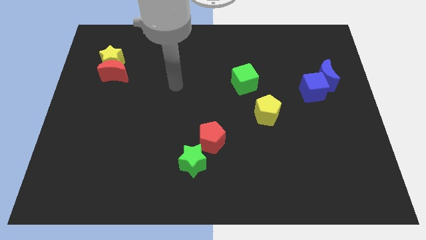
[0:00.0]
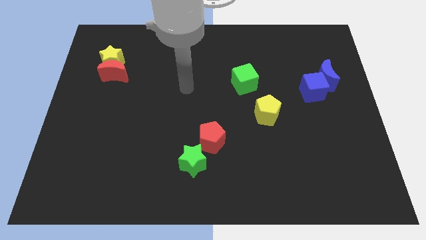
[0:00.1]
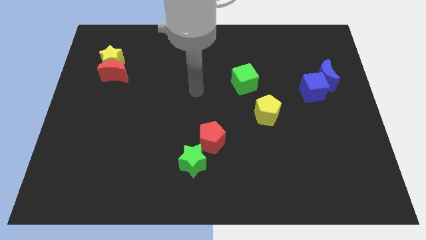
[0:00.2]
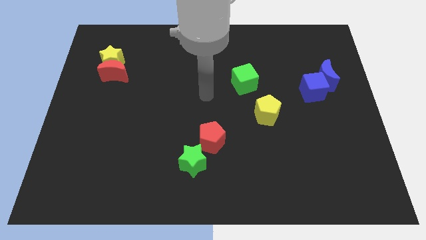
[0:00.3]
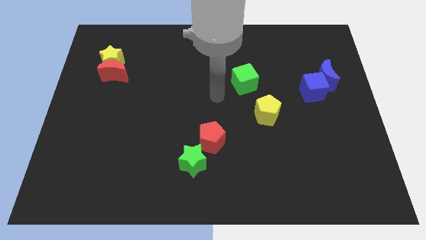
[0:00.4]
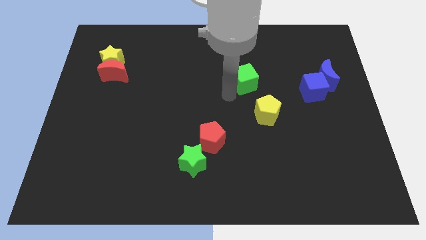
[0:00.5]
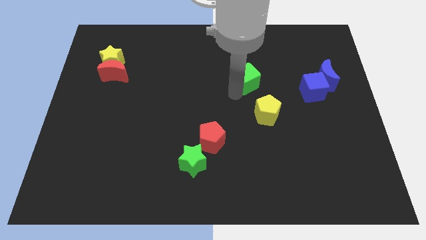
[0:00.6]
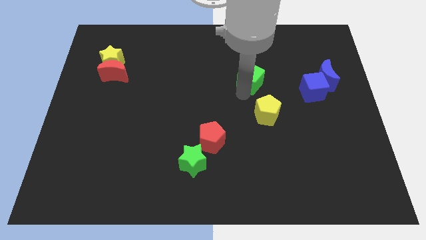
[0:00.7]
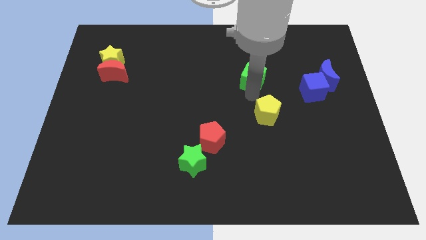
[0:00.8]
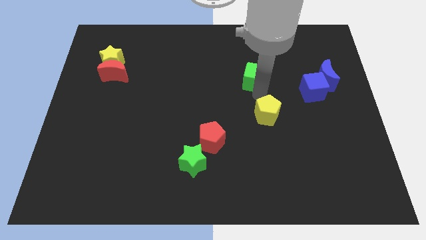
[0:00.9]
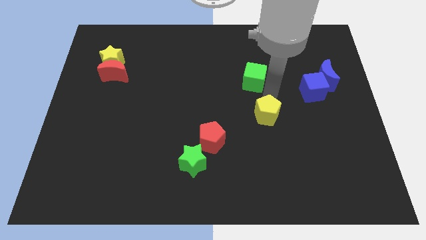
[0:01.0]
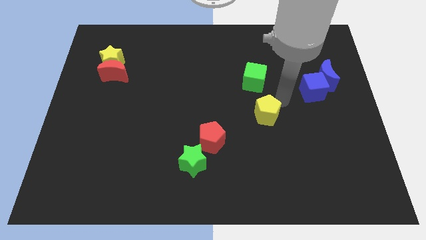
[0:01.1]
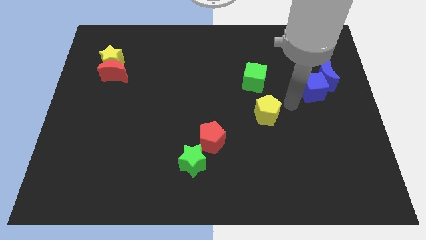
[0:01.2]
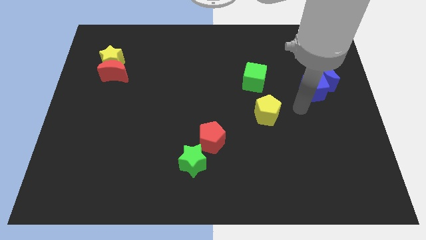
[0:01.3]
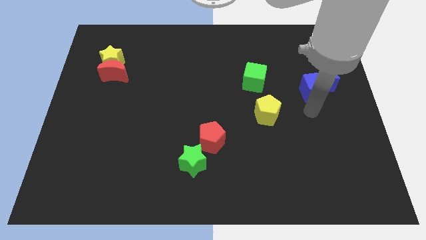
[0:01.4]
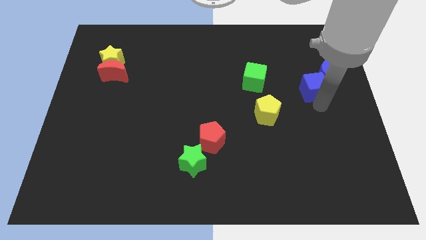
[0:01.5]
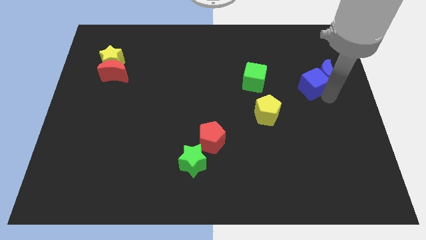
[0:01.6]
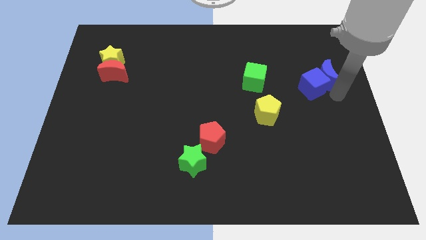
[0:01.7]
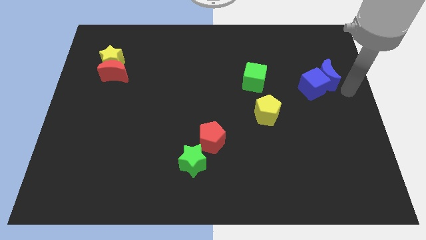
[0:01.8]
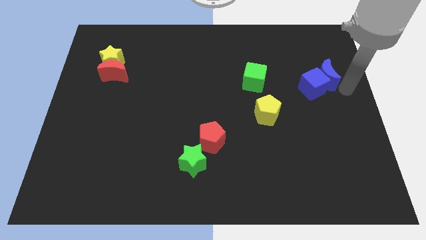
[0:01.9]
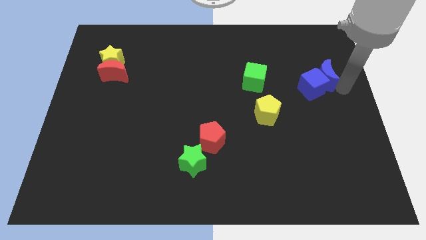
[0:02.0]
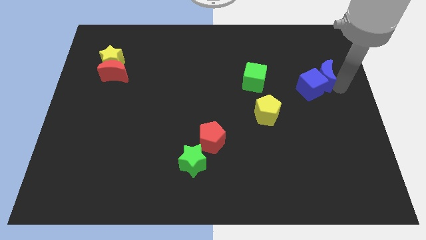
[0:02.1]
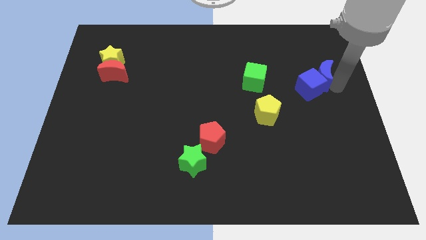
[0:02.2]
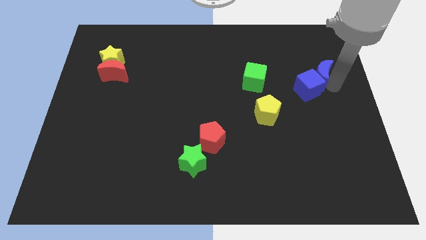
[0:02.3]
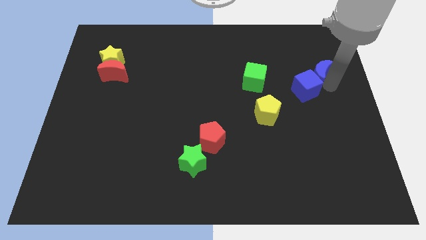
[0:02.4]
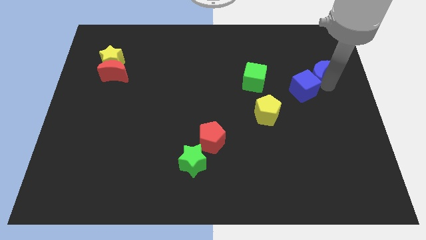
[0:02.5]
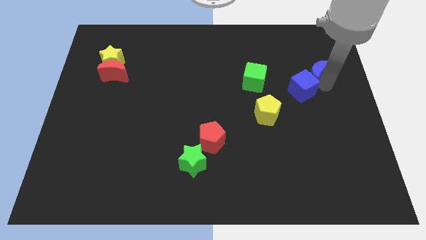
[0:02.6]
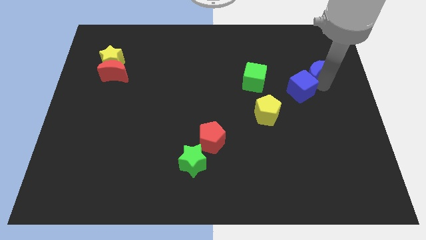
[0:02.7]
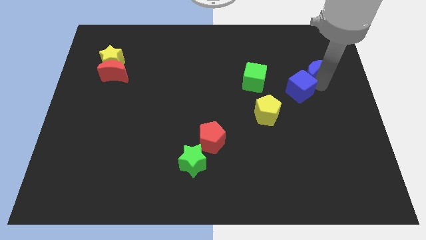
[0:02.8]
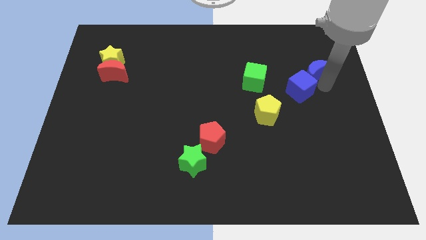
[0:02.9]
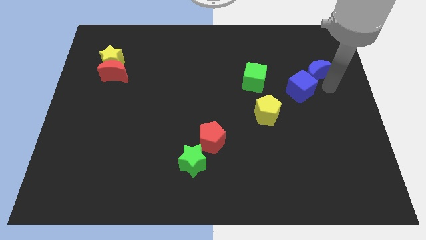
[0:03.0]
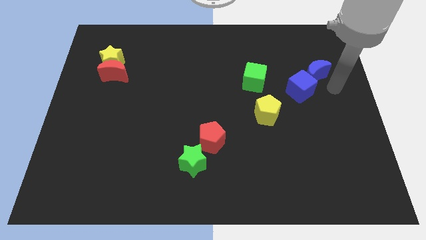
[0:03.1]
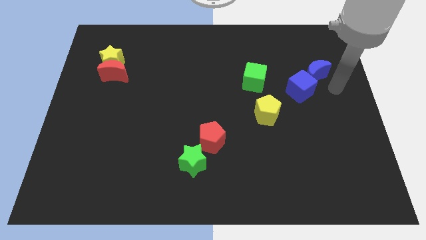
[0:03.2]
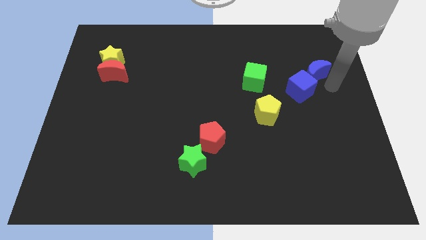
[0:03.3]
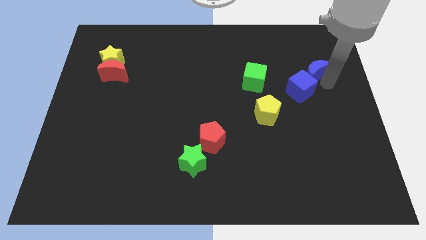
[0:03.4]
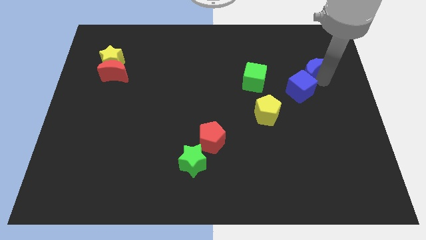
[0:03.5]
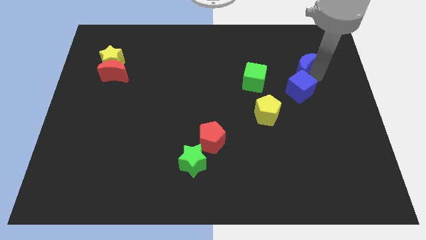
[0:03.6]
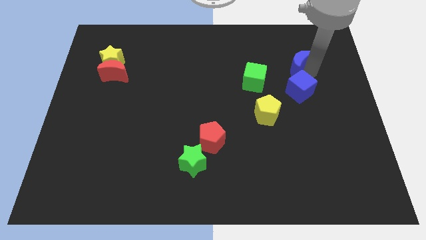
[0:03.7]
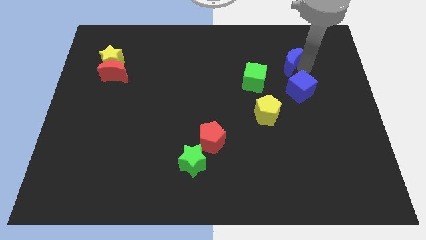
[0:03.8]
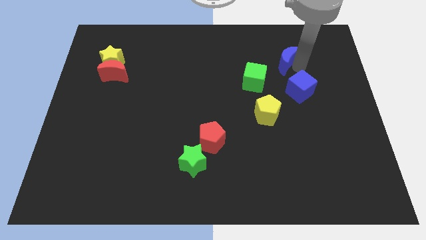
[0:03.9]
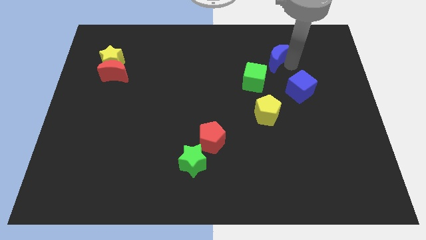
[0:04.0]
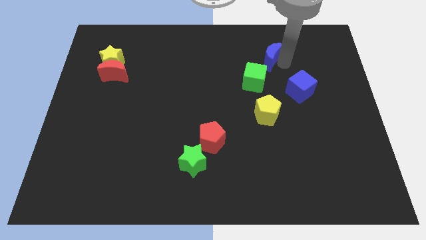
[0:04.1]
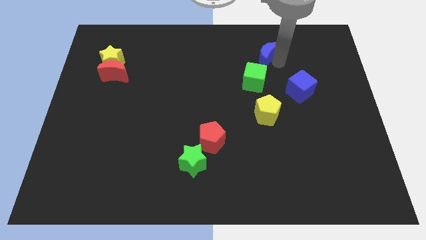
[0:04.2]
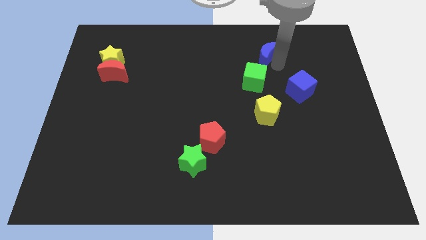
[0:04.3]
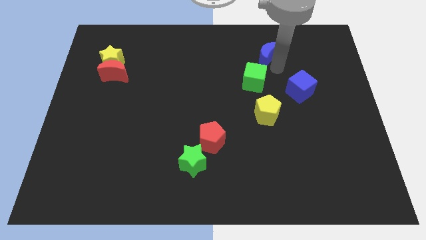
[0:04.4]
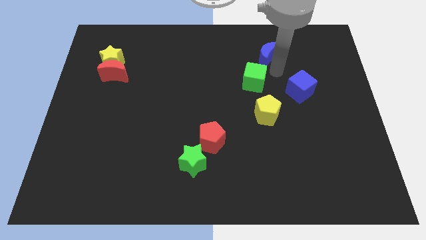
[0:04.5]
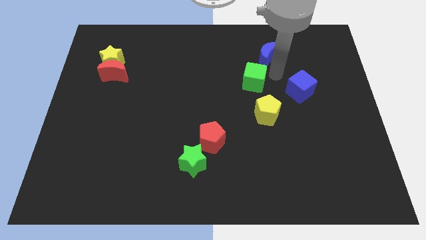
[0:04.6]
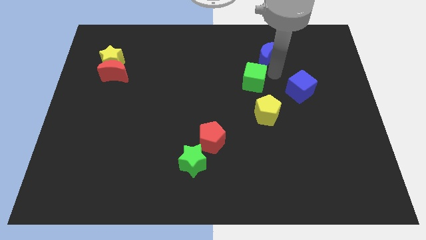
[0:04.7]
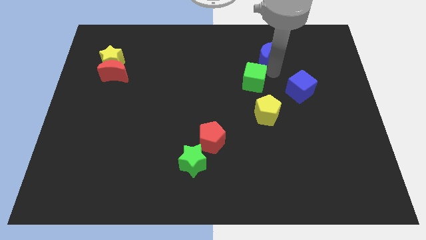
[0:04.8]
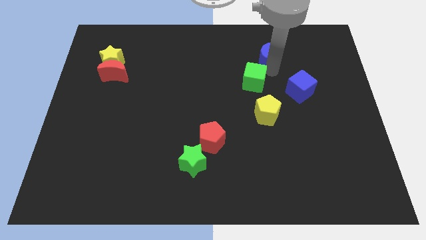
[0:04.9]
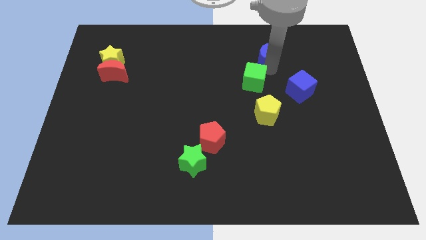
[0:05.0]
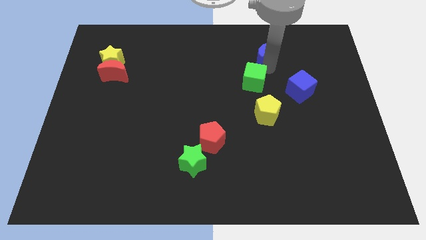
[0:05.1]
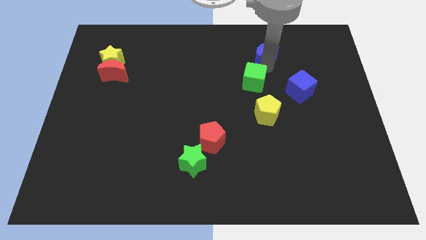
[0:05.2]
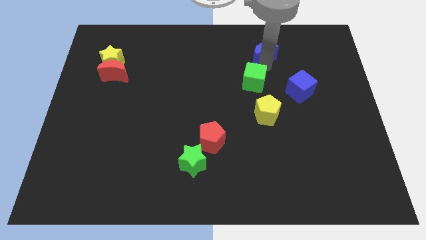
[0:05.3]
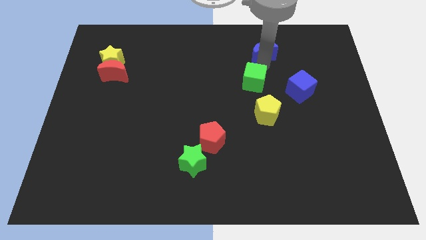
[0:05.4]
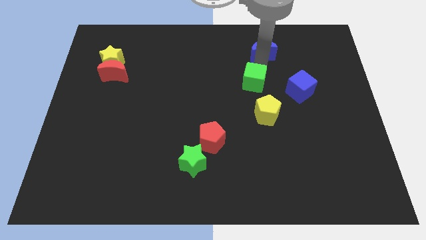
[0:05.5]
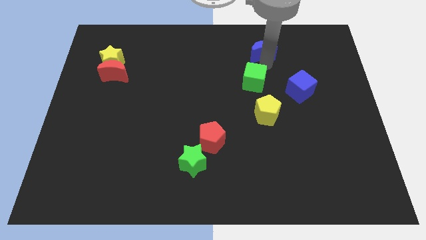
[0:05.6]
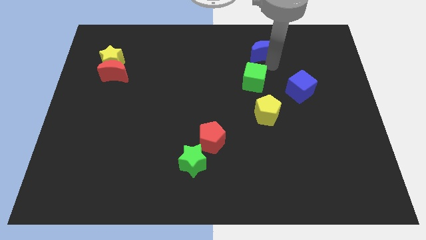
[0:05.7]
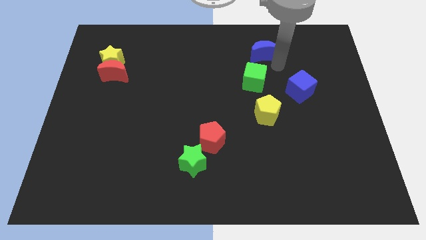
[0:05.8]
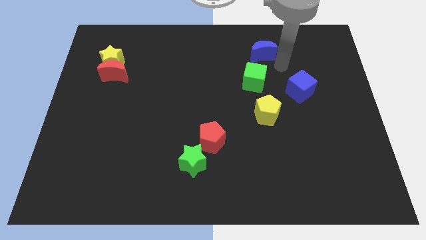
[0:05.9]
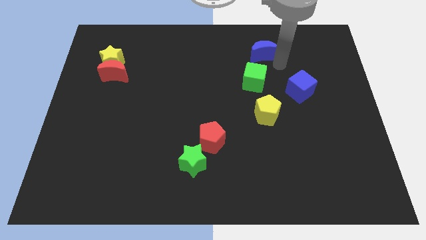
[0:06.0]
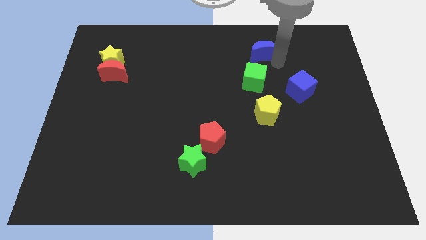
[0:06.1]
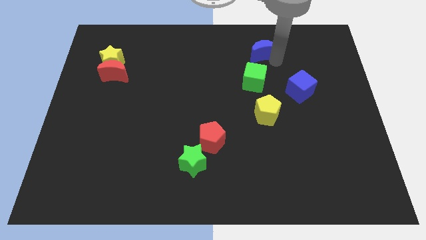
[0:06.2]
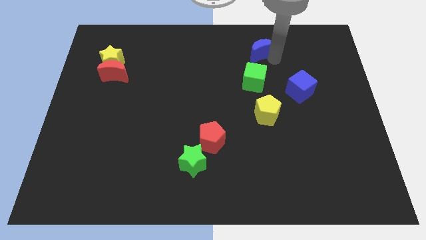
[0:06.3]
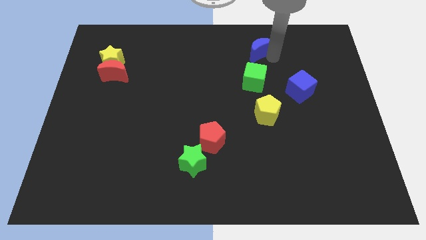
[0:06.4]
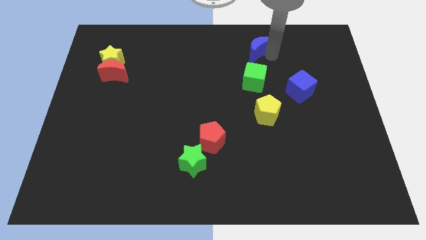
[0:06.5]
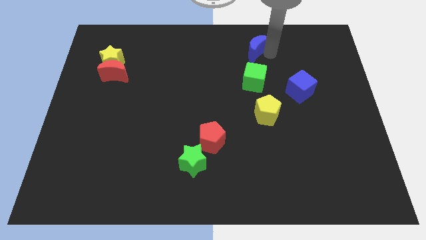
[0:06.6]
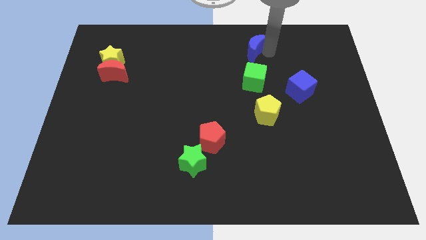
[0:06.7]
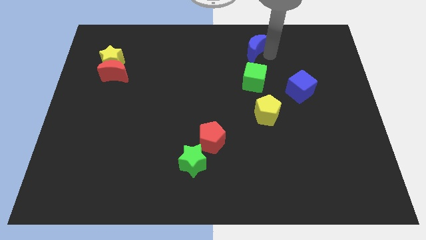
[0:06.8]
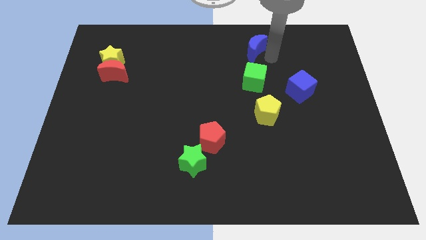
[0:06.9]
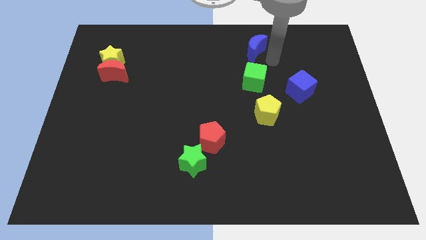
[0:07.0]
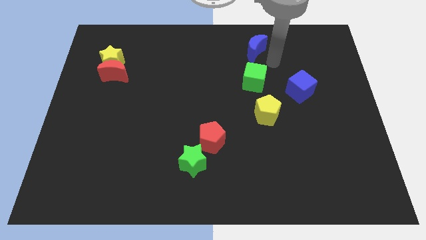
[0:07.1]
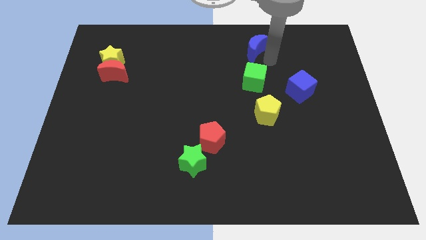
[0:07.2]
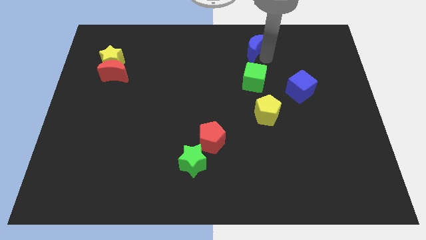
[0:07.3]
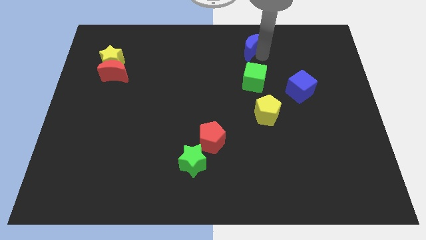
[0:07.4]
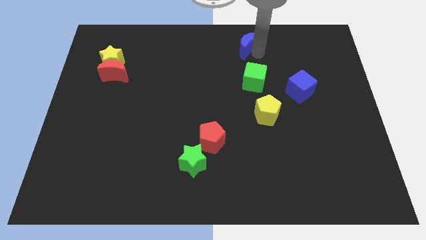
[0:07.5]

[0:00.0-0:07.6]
put the blue moon to the top
